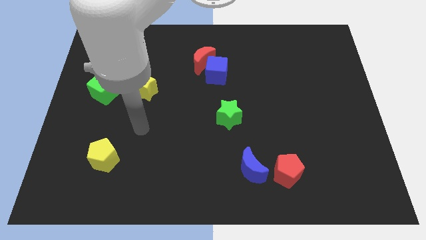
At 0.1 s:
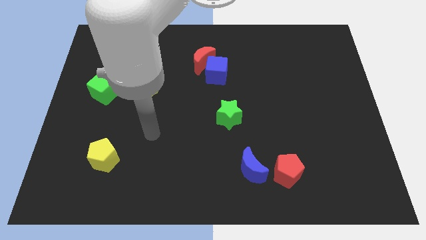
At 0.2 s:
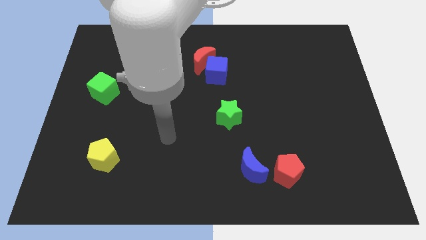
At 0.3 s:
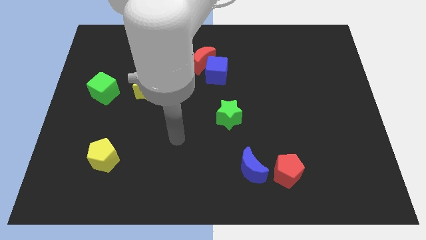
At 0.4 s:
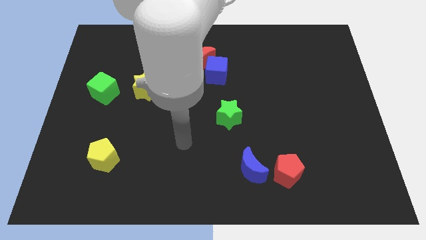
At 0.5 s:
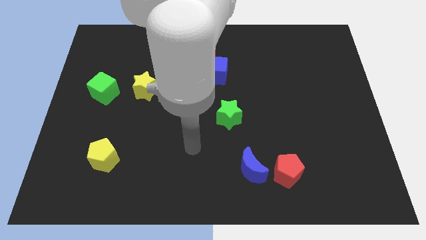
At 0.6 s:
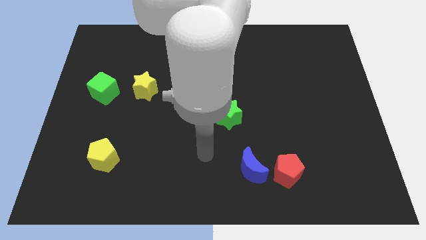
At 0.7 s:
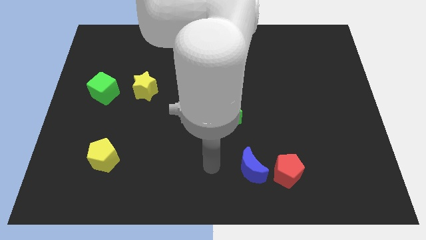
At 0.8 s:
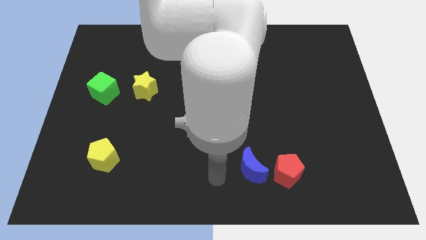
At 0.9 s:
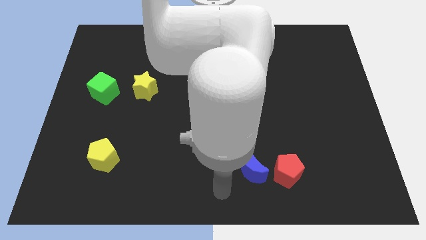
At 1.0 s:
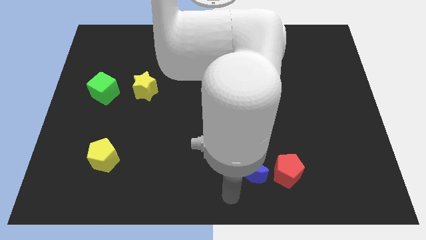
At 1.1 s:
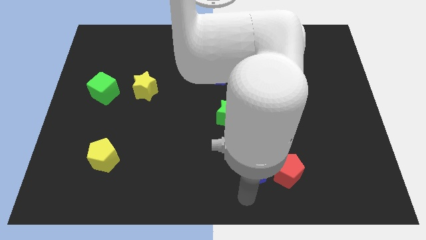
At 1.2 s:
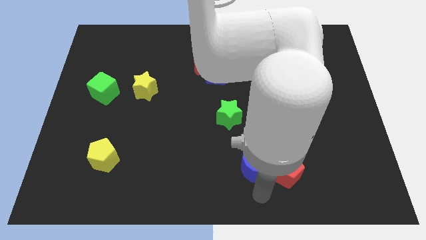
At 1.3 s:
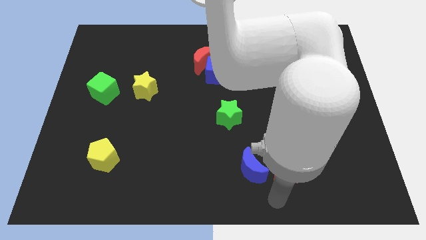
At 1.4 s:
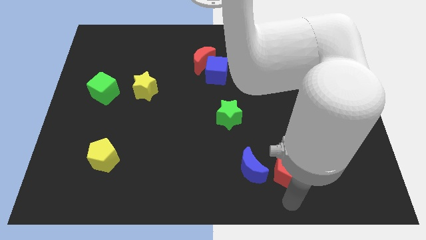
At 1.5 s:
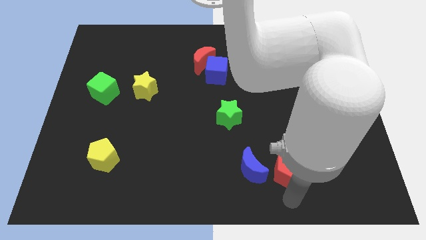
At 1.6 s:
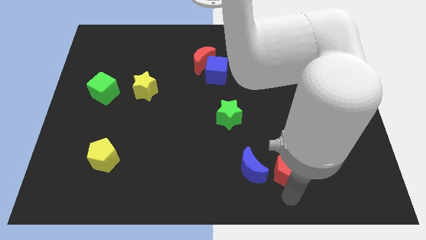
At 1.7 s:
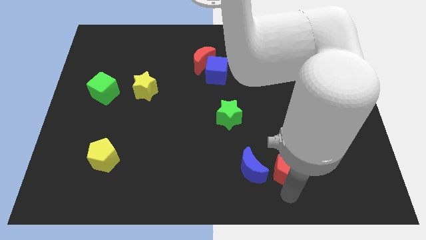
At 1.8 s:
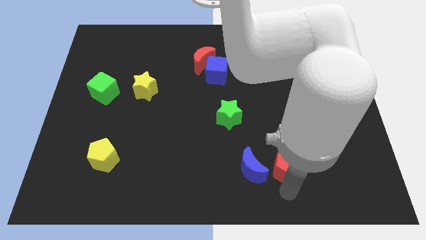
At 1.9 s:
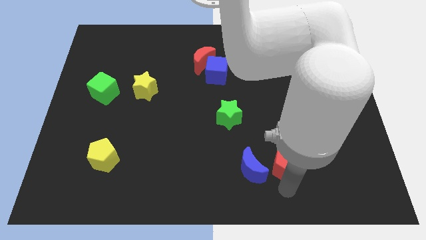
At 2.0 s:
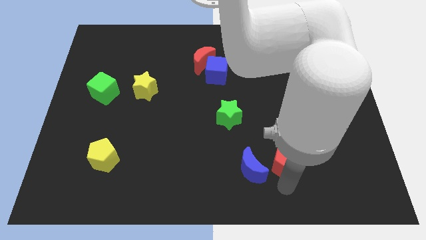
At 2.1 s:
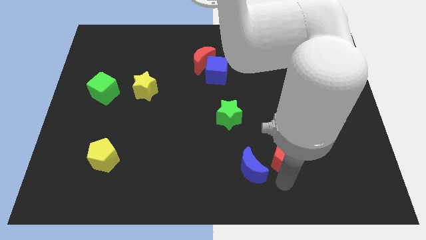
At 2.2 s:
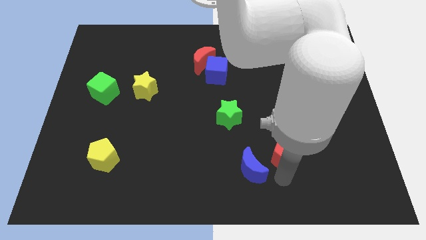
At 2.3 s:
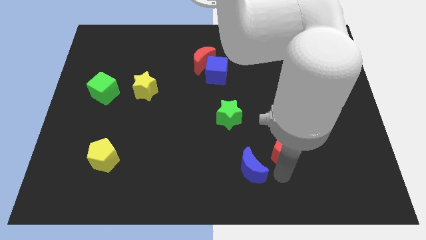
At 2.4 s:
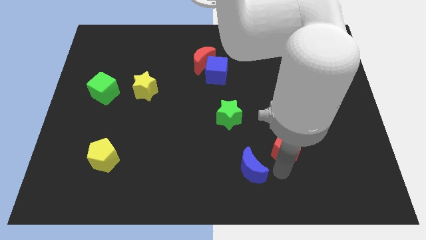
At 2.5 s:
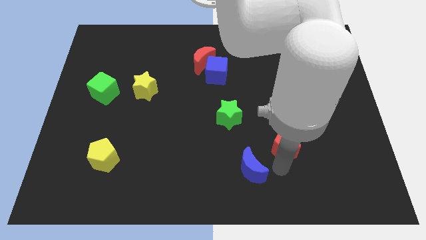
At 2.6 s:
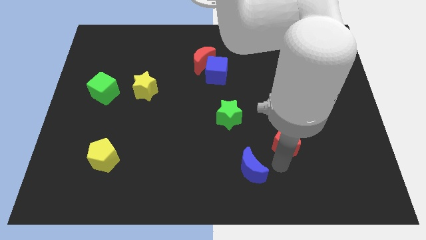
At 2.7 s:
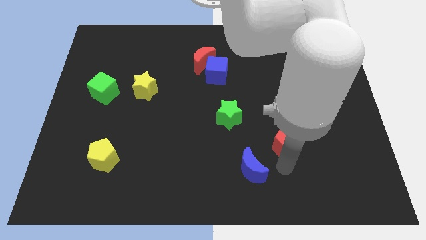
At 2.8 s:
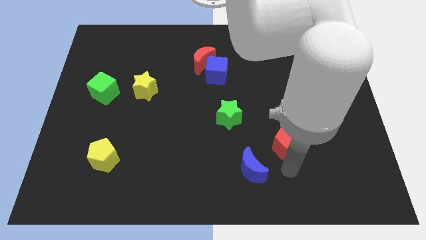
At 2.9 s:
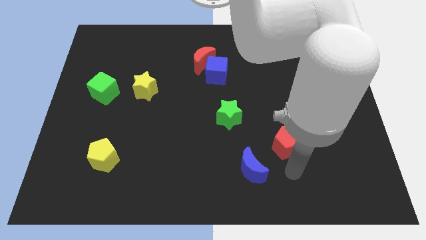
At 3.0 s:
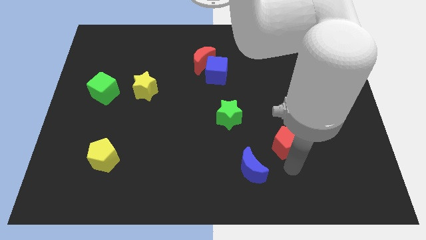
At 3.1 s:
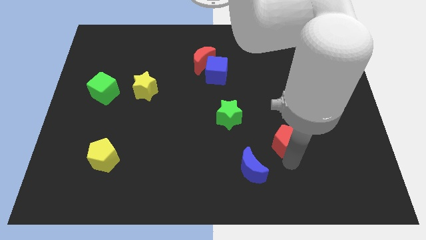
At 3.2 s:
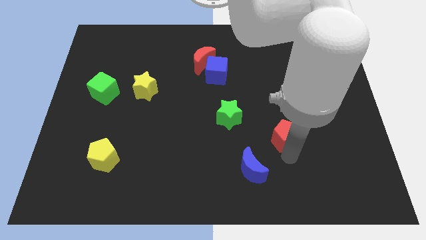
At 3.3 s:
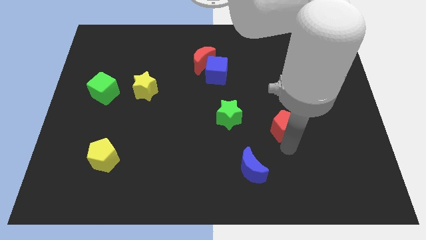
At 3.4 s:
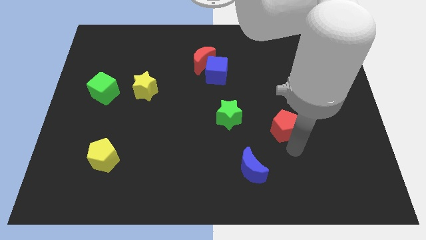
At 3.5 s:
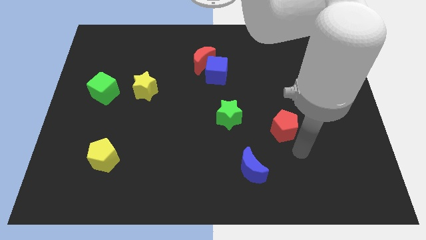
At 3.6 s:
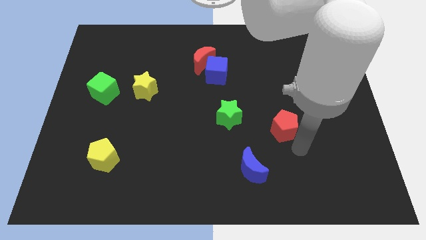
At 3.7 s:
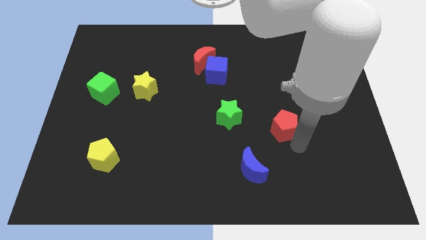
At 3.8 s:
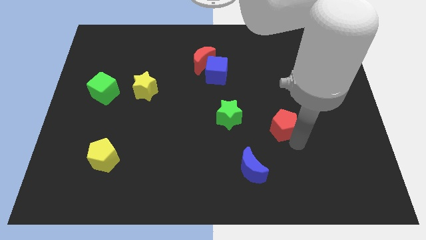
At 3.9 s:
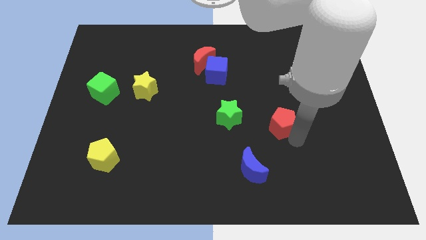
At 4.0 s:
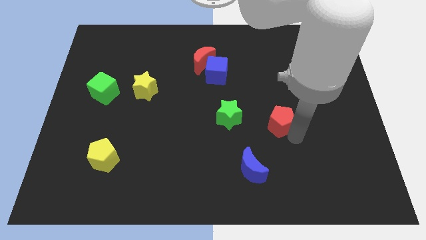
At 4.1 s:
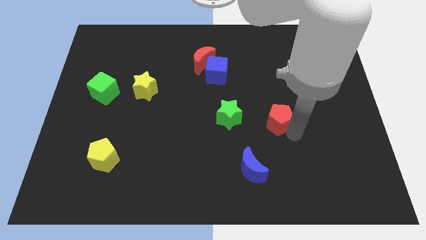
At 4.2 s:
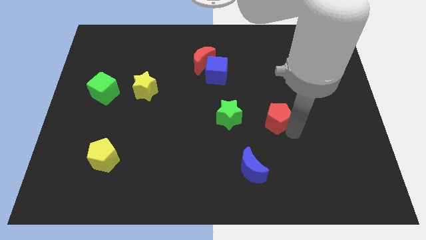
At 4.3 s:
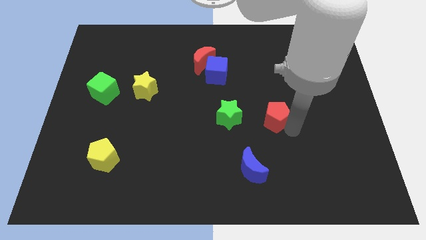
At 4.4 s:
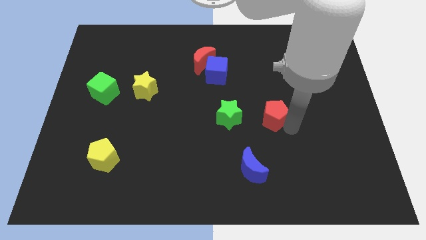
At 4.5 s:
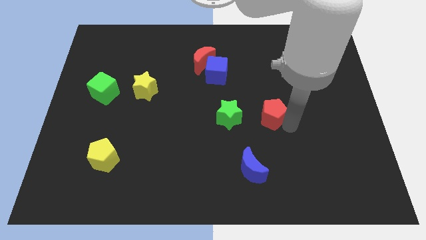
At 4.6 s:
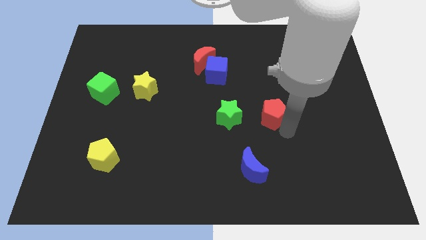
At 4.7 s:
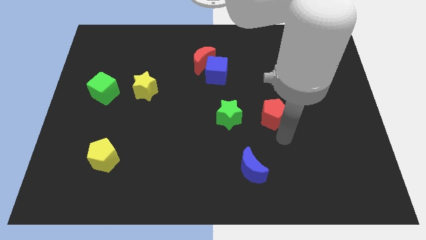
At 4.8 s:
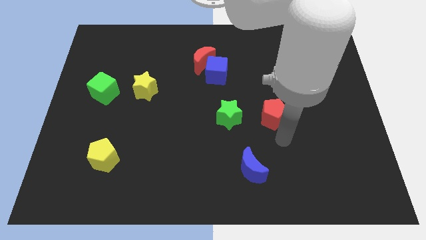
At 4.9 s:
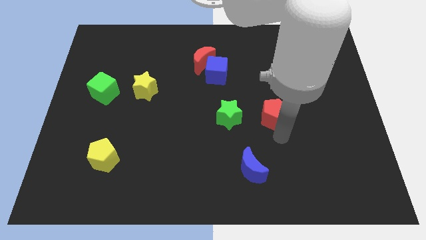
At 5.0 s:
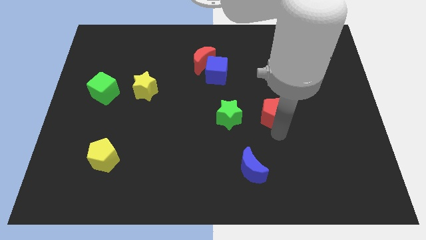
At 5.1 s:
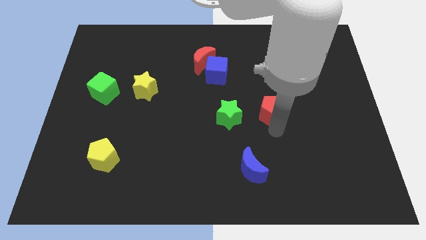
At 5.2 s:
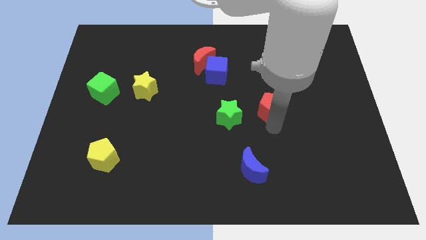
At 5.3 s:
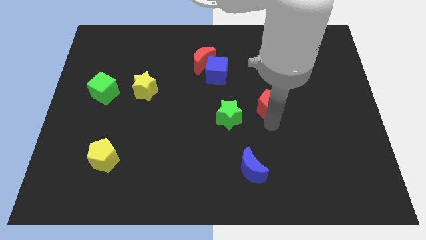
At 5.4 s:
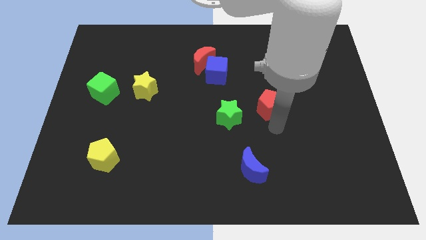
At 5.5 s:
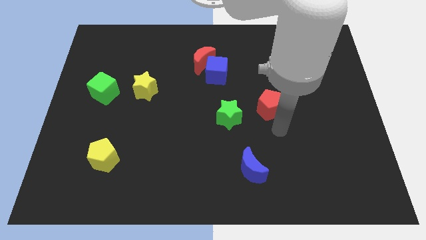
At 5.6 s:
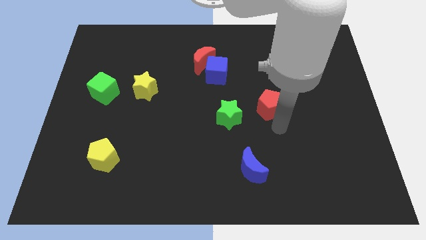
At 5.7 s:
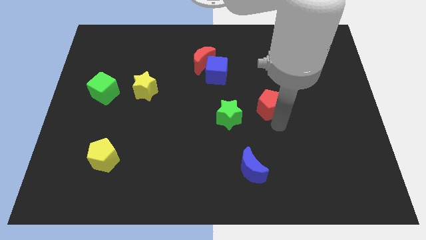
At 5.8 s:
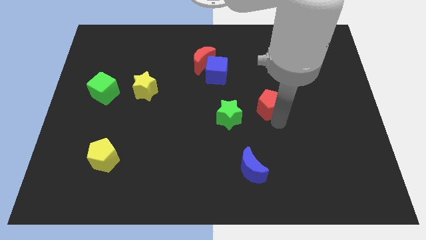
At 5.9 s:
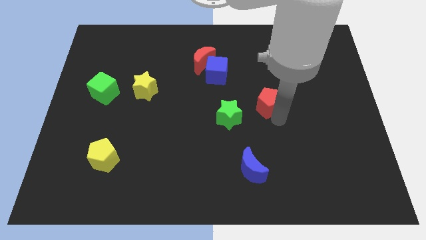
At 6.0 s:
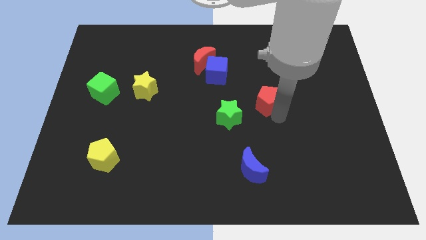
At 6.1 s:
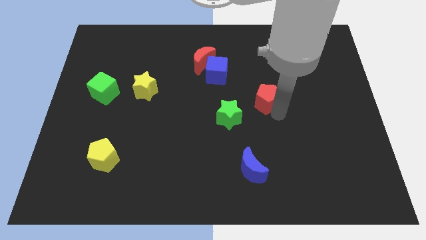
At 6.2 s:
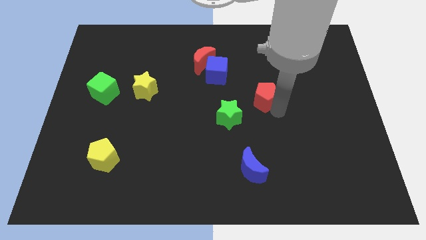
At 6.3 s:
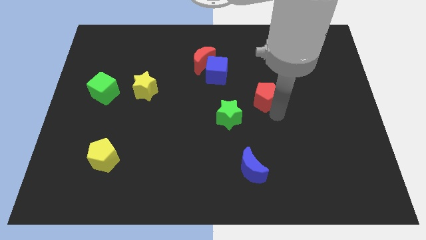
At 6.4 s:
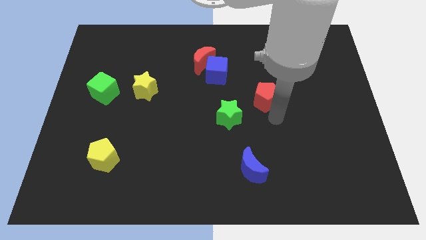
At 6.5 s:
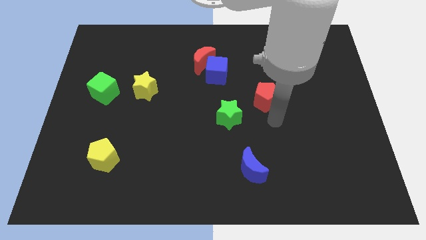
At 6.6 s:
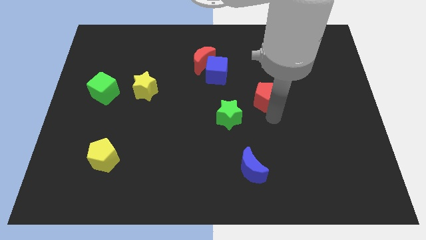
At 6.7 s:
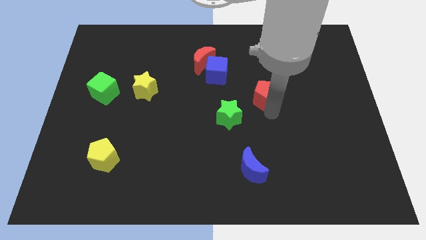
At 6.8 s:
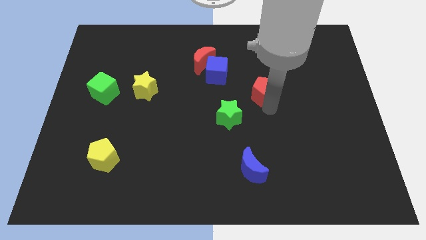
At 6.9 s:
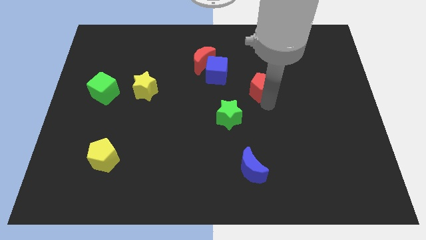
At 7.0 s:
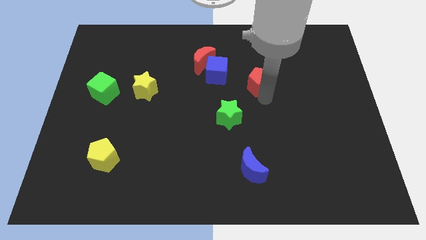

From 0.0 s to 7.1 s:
push the red pentagon just right of the blue cube

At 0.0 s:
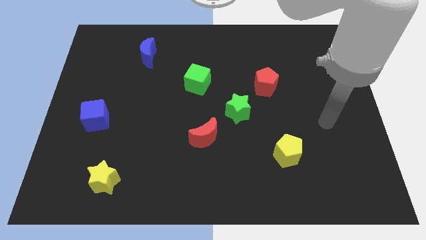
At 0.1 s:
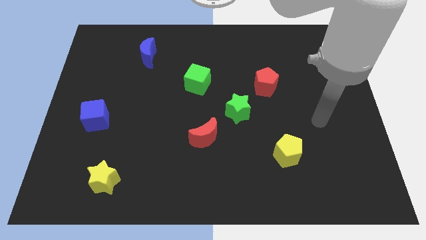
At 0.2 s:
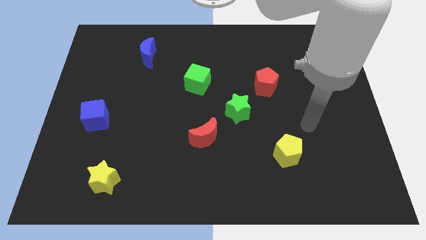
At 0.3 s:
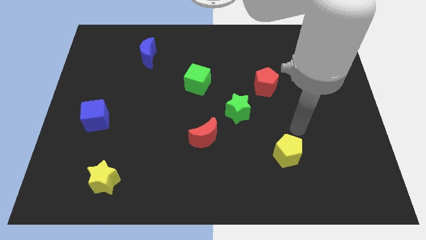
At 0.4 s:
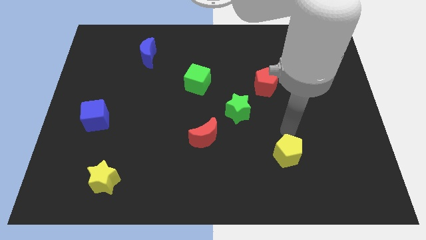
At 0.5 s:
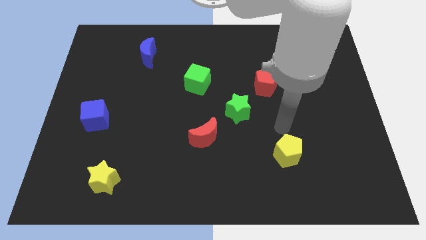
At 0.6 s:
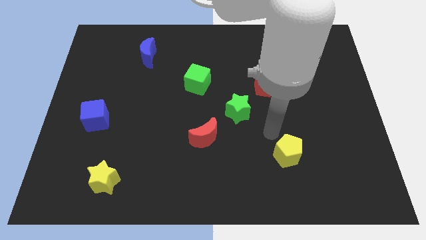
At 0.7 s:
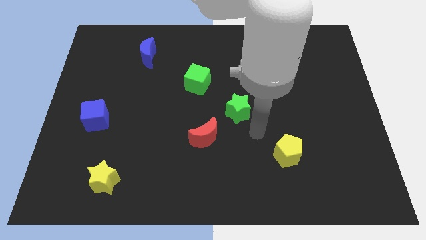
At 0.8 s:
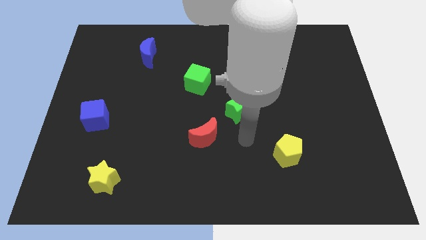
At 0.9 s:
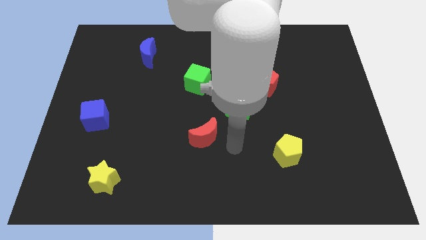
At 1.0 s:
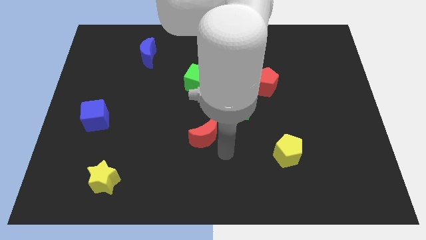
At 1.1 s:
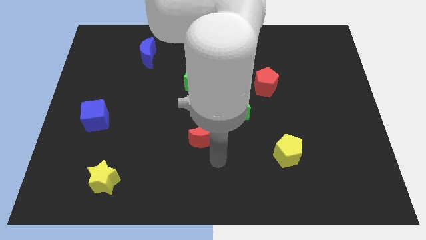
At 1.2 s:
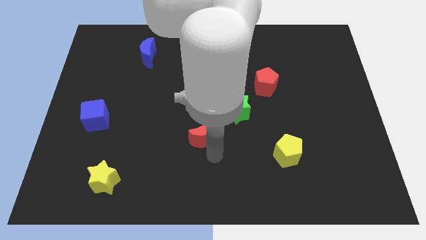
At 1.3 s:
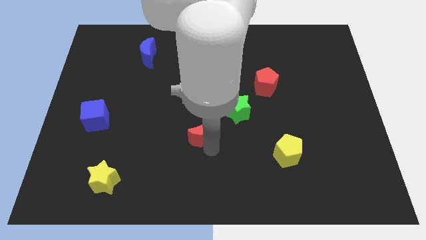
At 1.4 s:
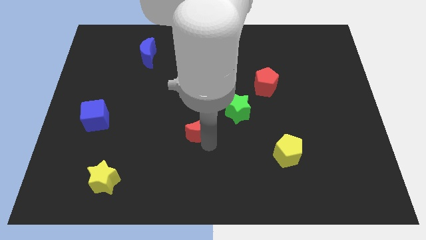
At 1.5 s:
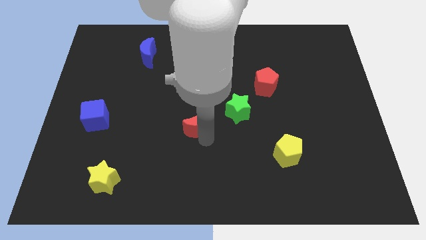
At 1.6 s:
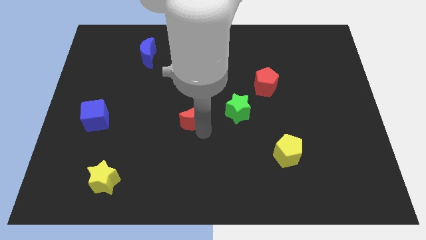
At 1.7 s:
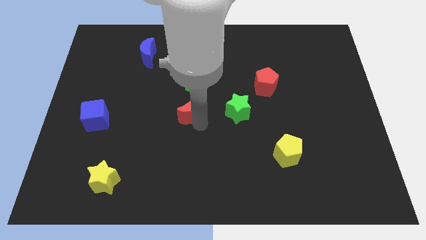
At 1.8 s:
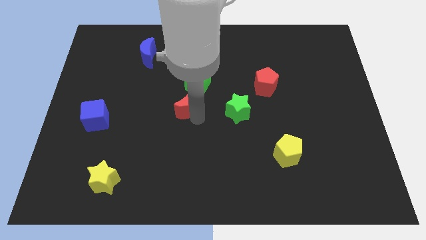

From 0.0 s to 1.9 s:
move the red moon to the bottom left side of the green cube
